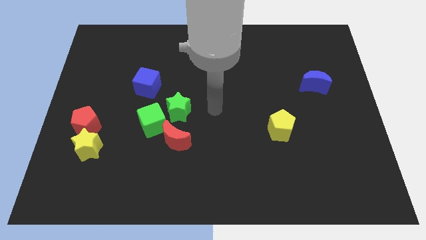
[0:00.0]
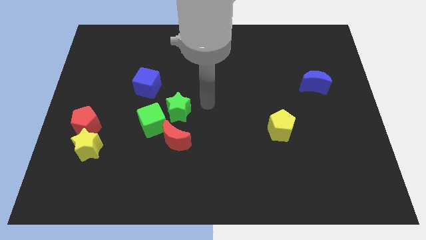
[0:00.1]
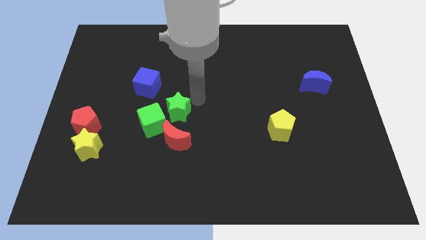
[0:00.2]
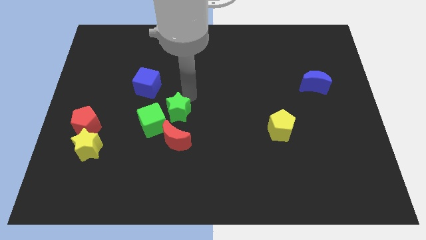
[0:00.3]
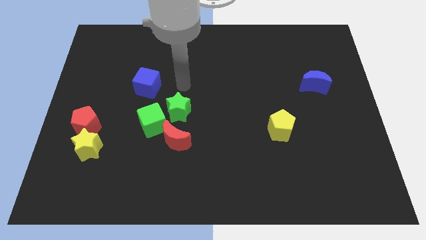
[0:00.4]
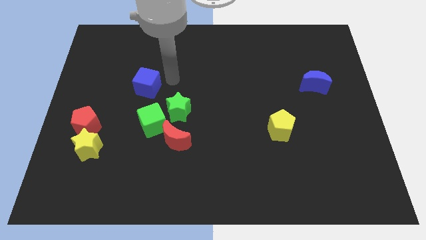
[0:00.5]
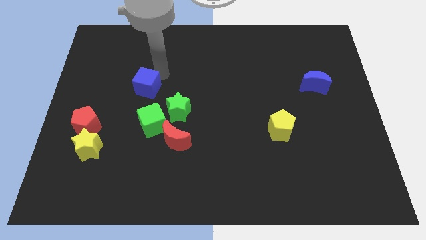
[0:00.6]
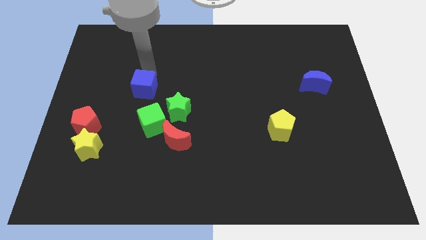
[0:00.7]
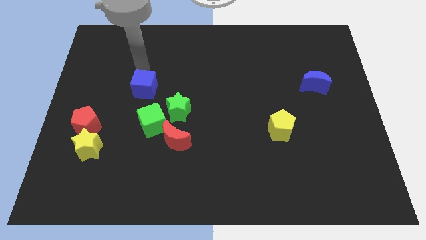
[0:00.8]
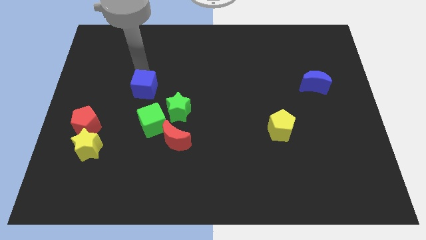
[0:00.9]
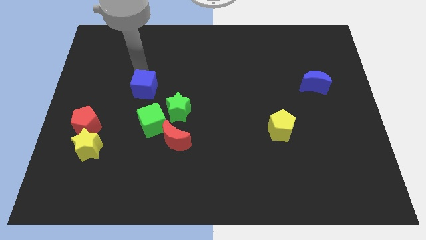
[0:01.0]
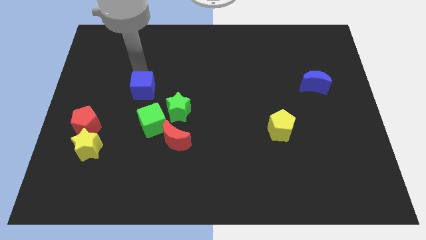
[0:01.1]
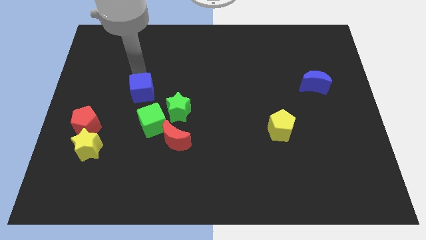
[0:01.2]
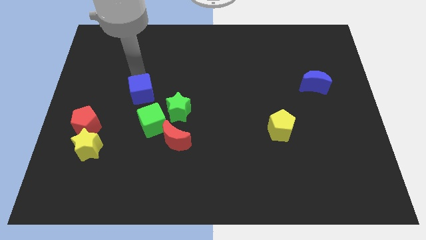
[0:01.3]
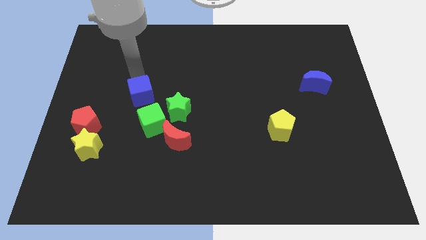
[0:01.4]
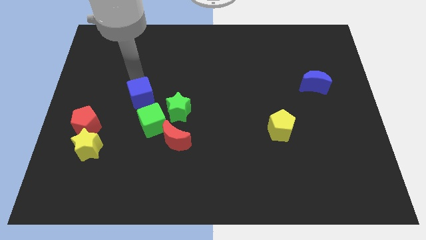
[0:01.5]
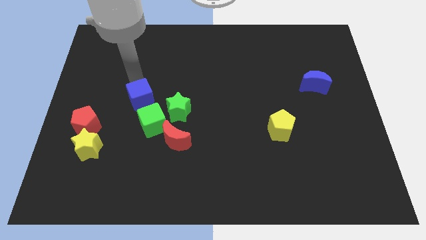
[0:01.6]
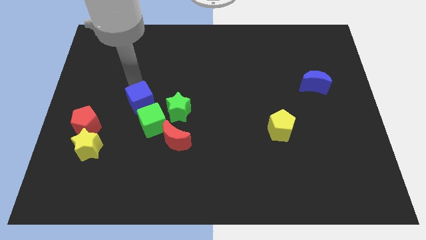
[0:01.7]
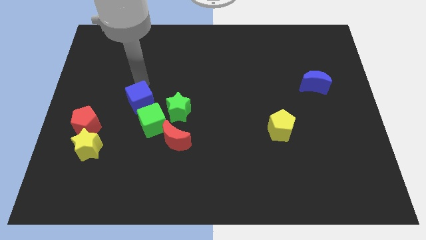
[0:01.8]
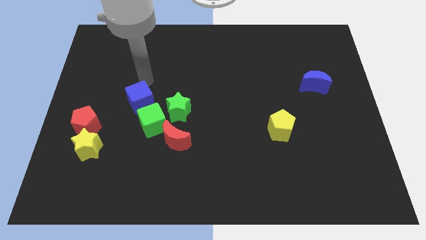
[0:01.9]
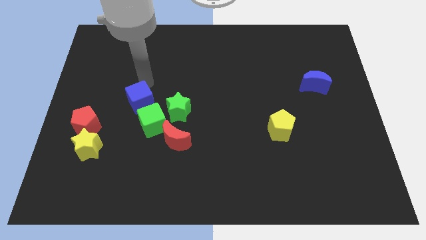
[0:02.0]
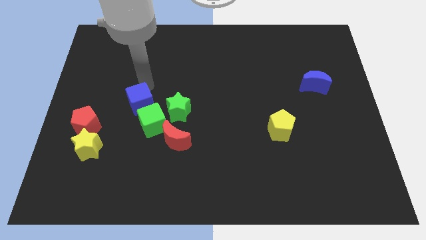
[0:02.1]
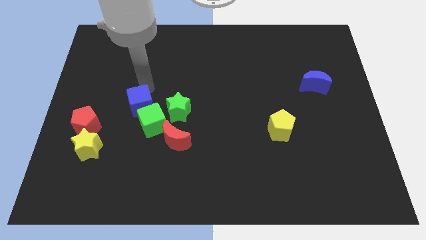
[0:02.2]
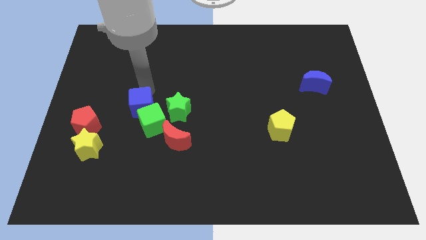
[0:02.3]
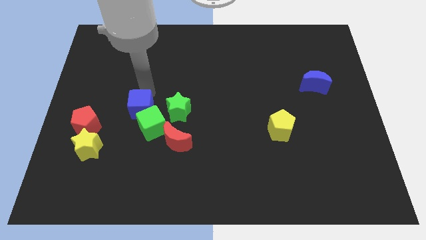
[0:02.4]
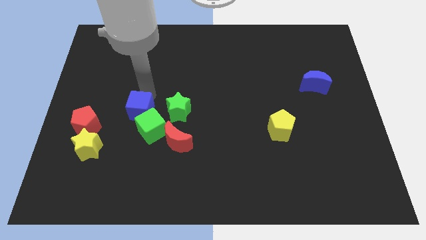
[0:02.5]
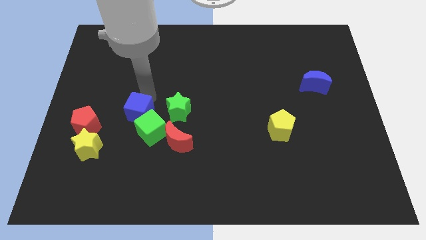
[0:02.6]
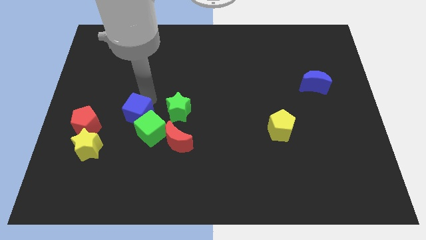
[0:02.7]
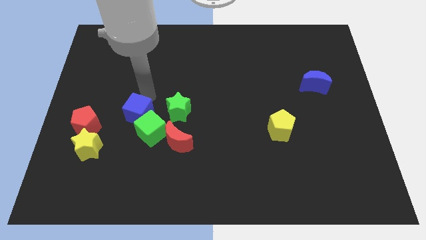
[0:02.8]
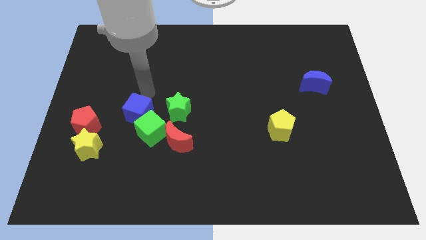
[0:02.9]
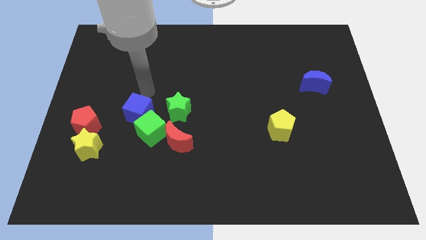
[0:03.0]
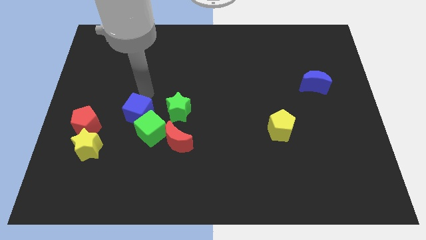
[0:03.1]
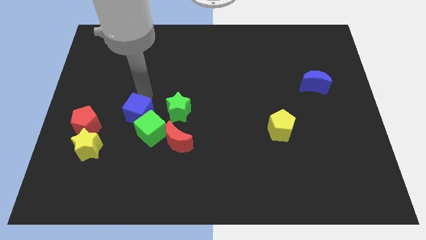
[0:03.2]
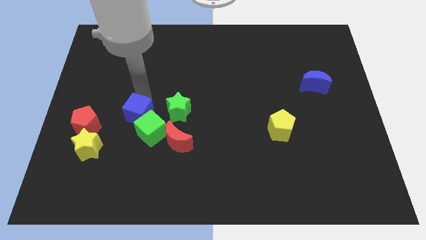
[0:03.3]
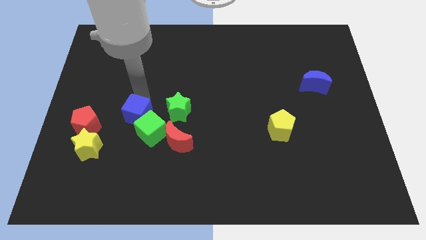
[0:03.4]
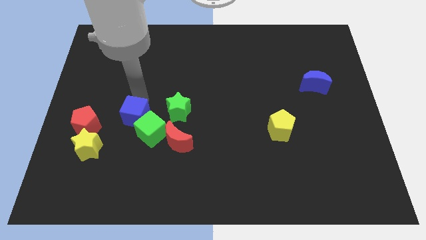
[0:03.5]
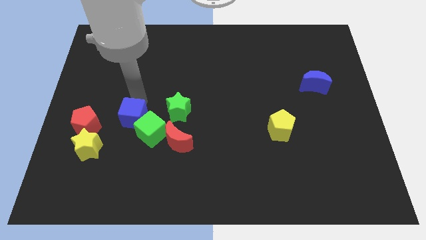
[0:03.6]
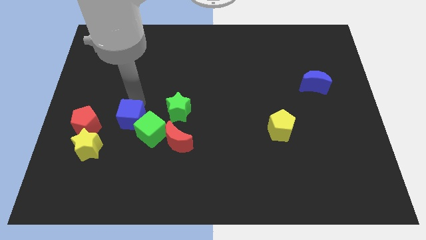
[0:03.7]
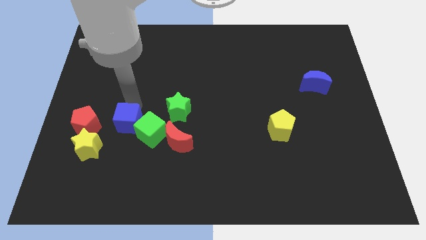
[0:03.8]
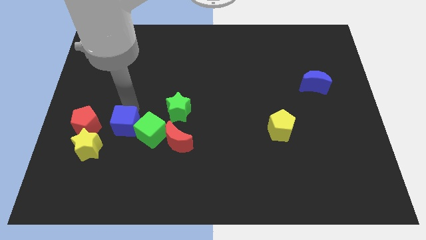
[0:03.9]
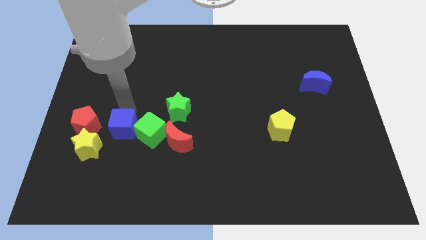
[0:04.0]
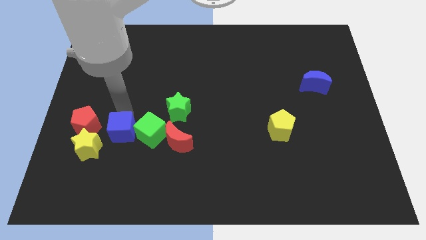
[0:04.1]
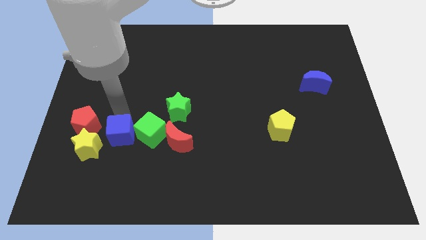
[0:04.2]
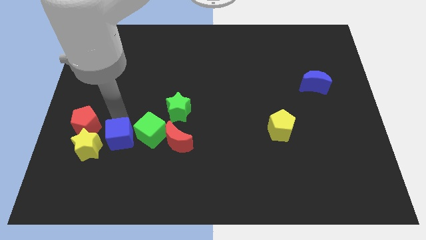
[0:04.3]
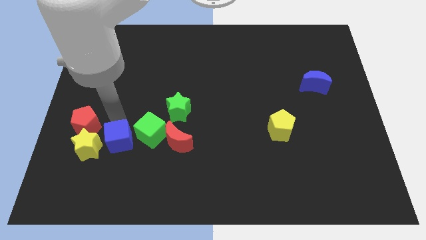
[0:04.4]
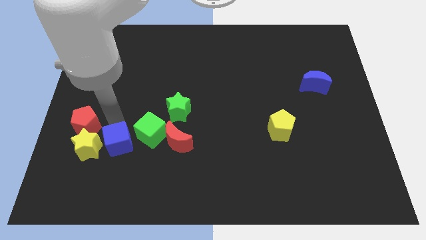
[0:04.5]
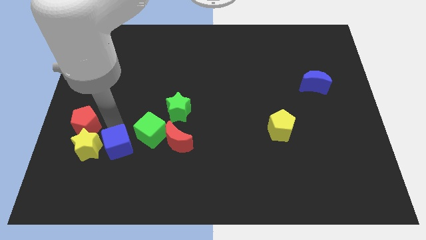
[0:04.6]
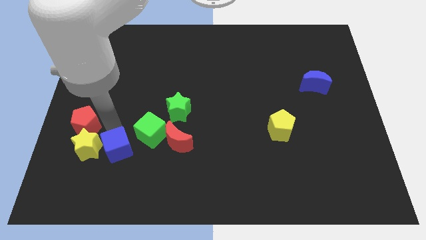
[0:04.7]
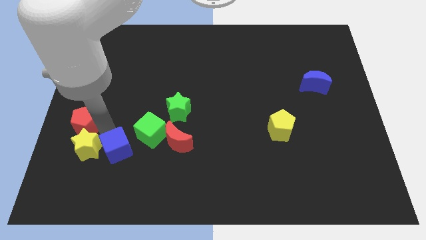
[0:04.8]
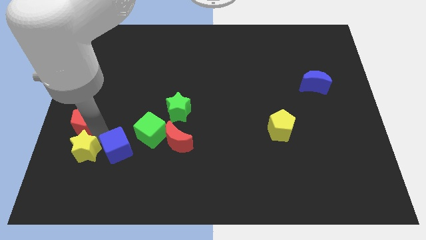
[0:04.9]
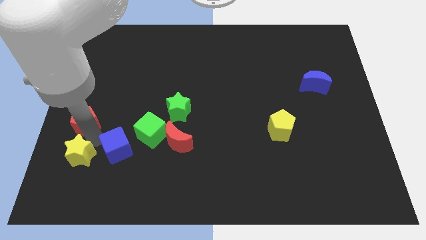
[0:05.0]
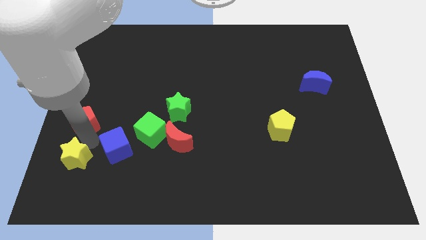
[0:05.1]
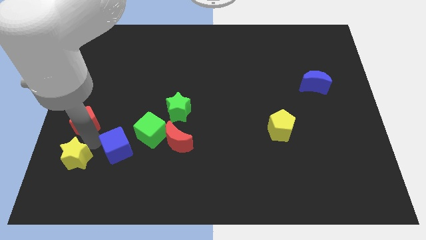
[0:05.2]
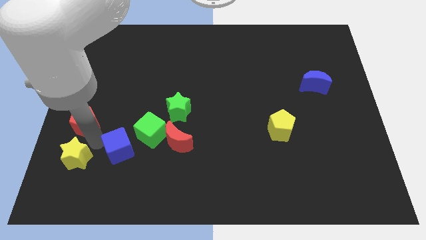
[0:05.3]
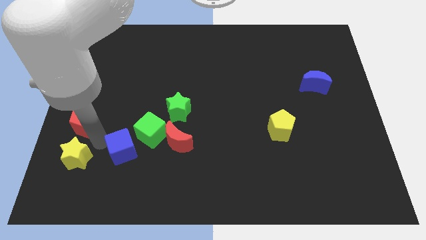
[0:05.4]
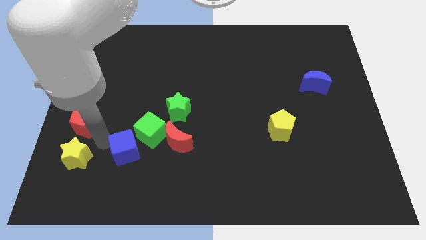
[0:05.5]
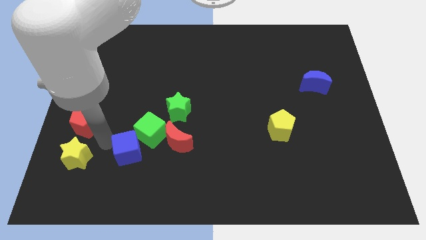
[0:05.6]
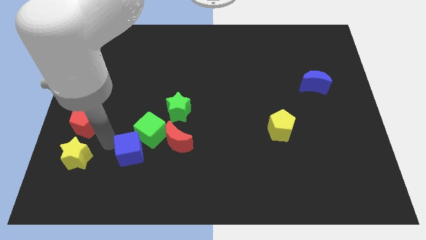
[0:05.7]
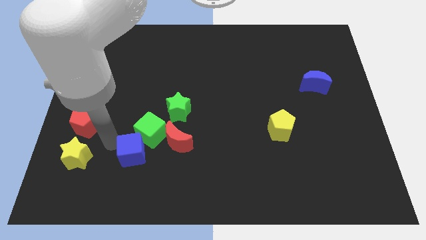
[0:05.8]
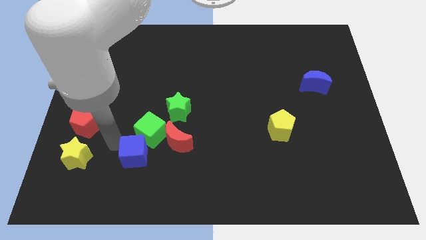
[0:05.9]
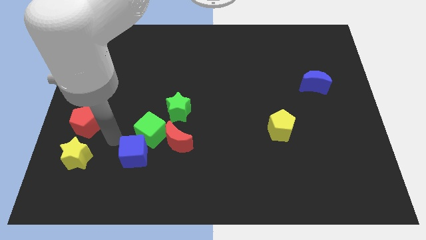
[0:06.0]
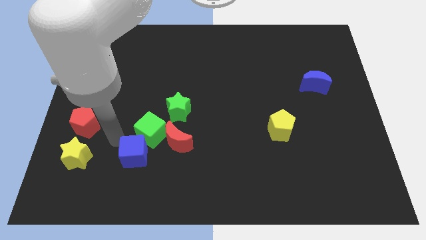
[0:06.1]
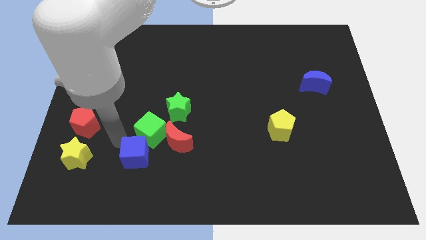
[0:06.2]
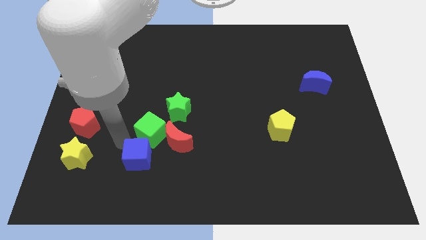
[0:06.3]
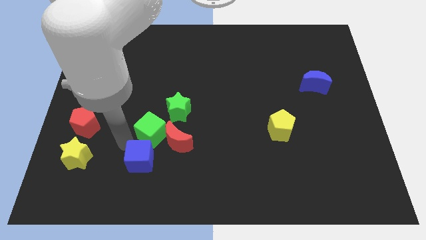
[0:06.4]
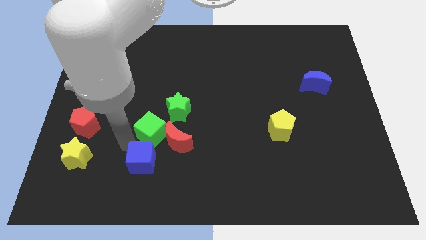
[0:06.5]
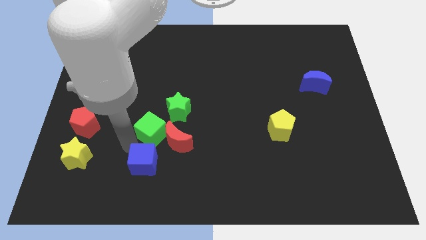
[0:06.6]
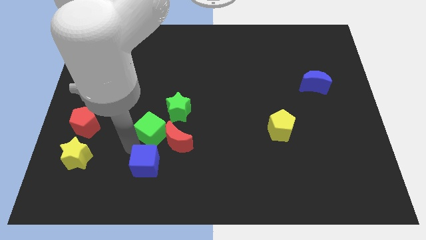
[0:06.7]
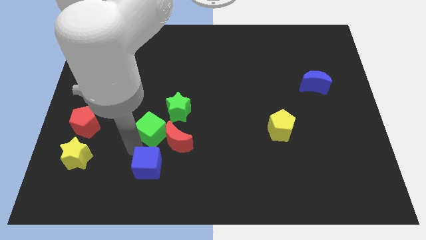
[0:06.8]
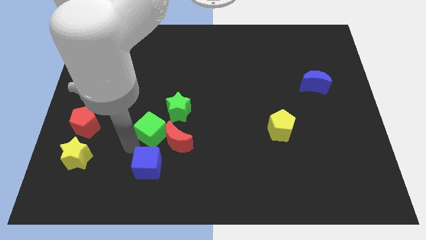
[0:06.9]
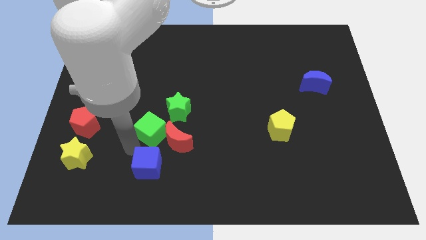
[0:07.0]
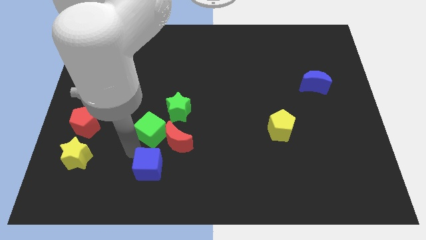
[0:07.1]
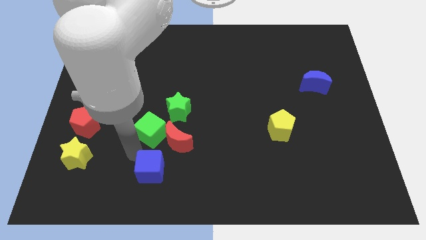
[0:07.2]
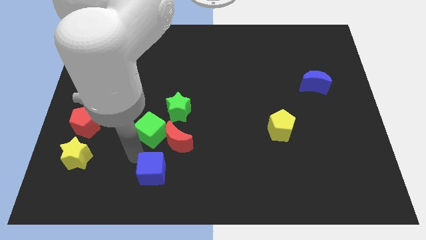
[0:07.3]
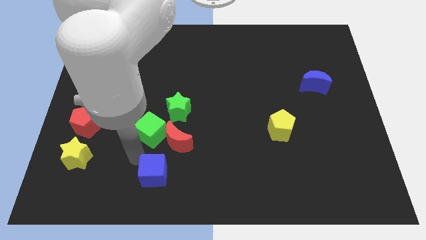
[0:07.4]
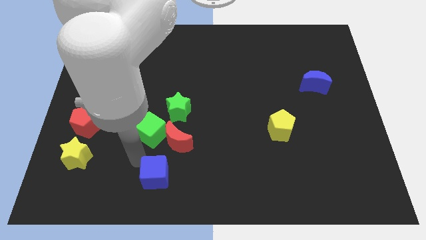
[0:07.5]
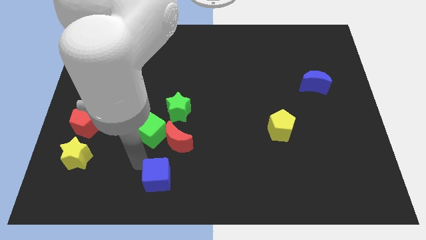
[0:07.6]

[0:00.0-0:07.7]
slide the blue cube to the bottom side
